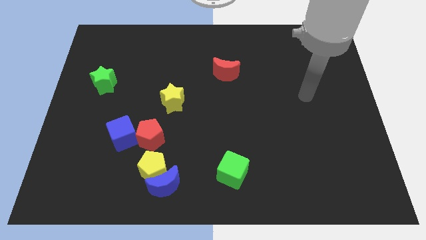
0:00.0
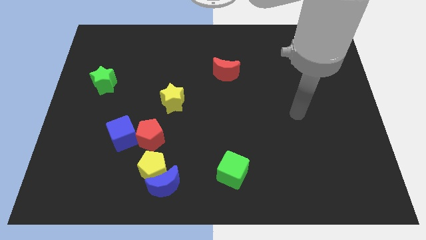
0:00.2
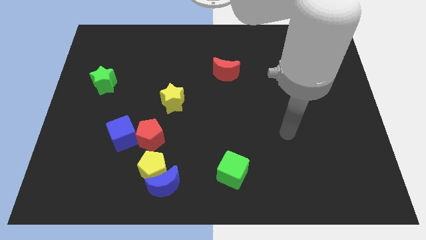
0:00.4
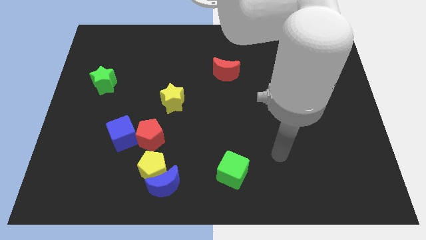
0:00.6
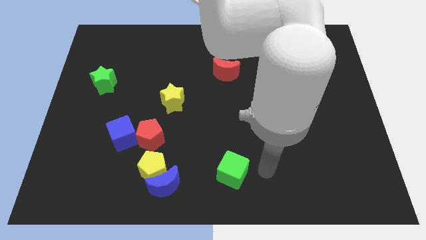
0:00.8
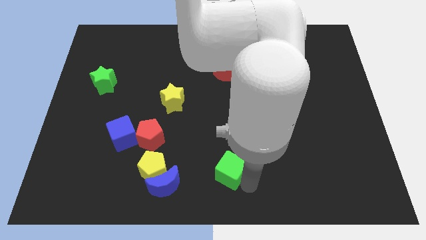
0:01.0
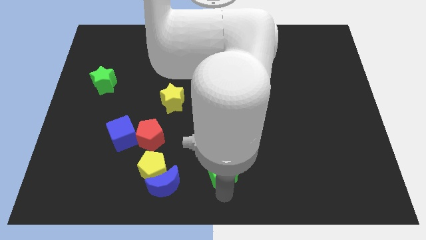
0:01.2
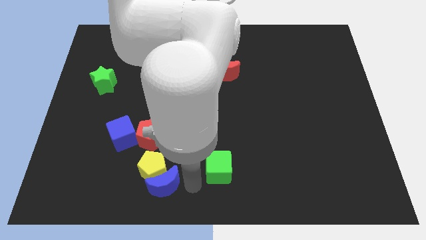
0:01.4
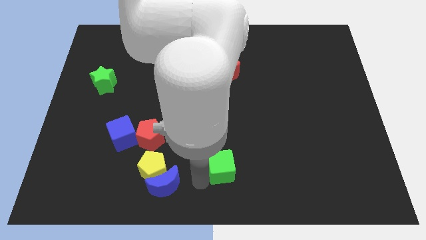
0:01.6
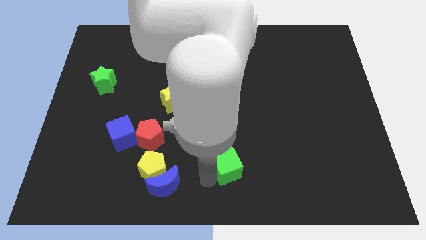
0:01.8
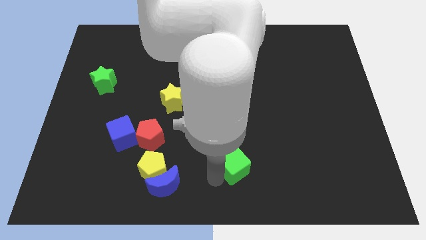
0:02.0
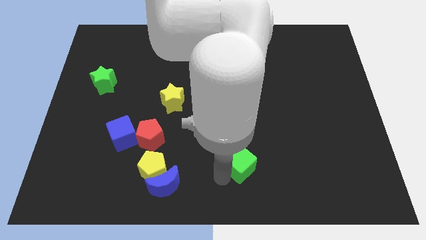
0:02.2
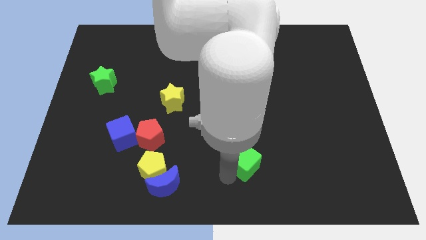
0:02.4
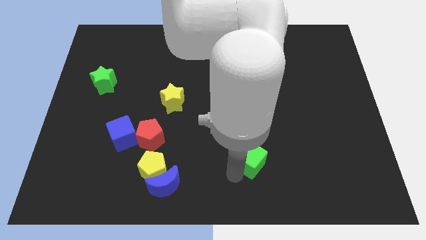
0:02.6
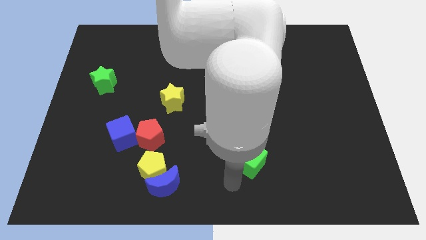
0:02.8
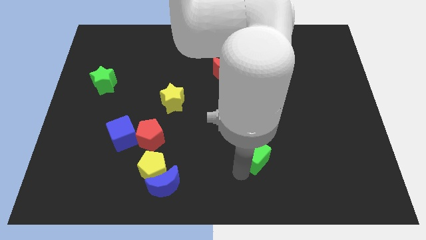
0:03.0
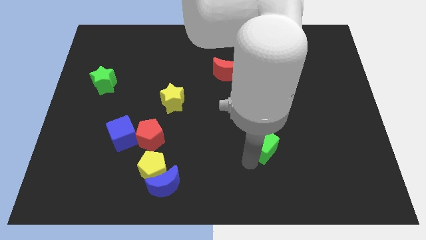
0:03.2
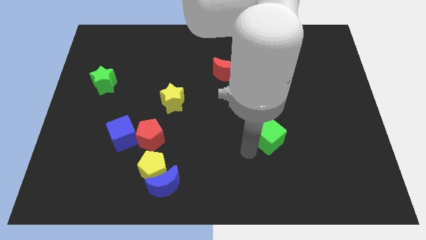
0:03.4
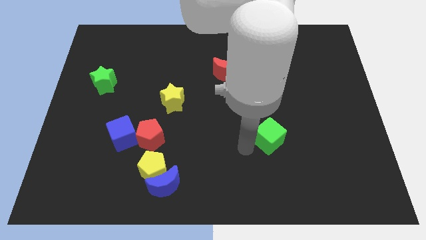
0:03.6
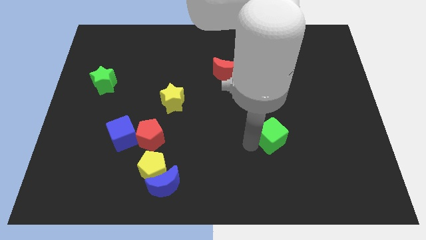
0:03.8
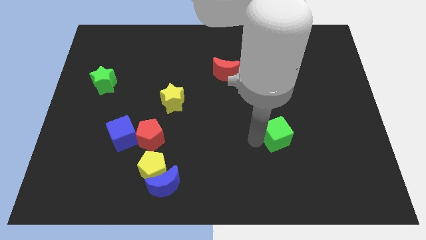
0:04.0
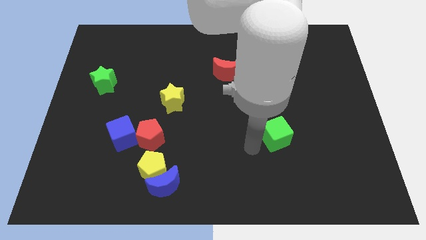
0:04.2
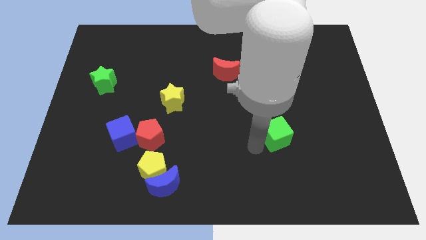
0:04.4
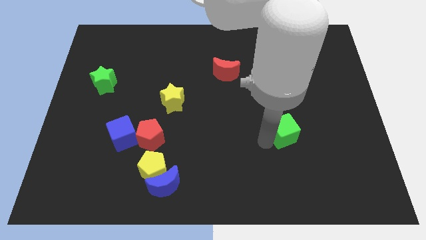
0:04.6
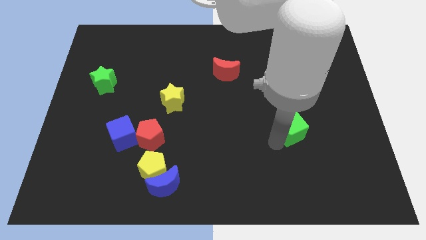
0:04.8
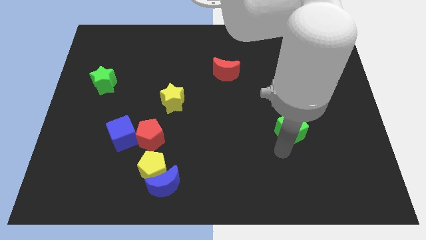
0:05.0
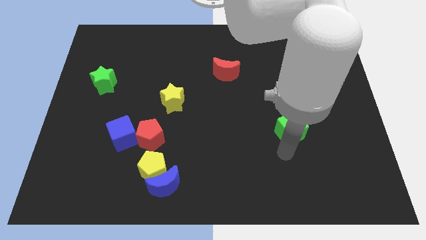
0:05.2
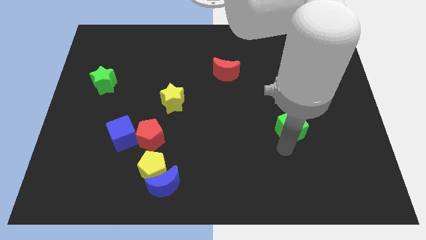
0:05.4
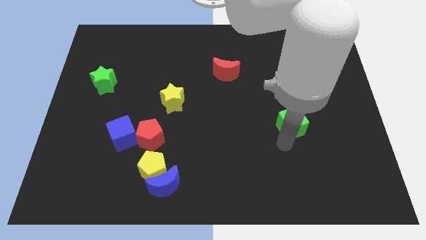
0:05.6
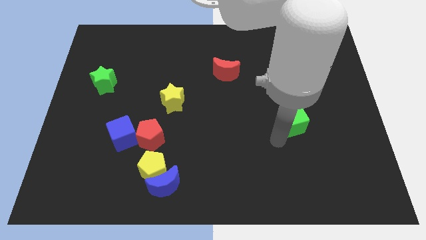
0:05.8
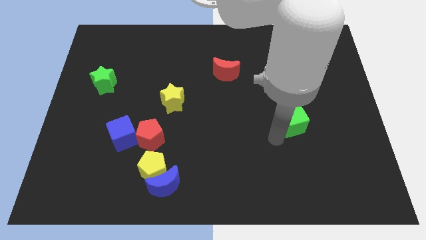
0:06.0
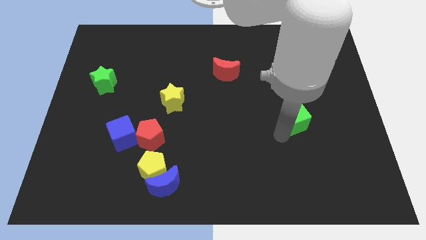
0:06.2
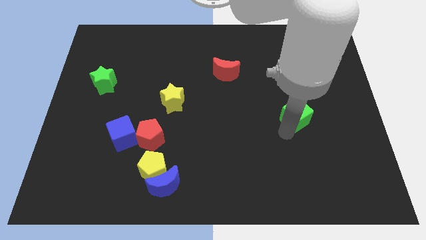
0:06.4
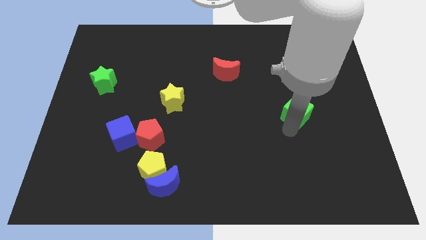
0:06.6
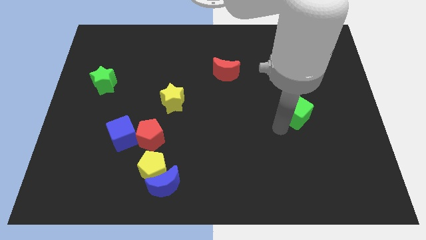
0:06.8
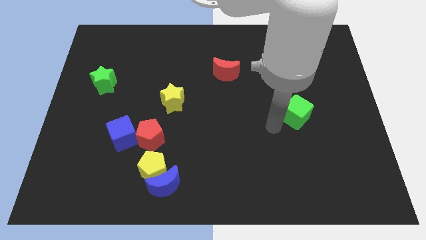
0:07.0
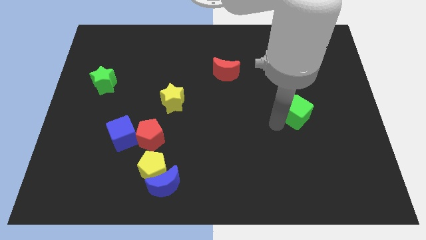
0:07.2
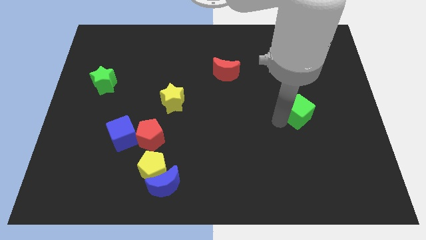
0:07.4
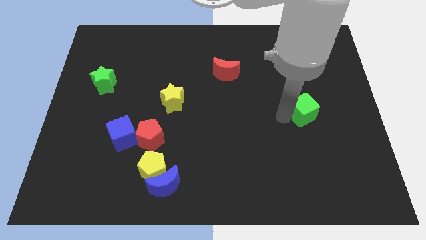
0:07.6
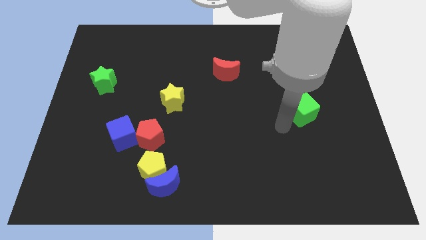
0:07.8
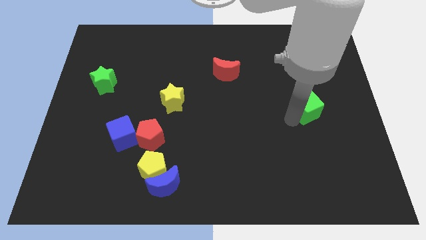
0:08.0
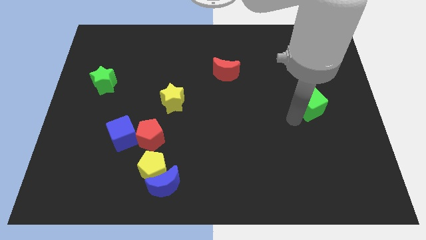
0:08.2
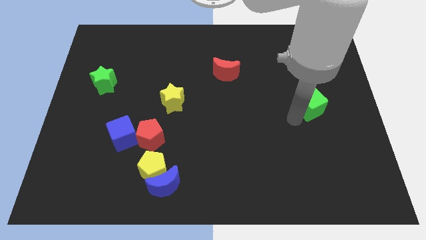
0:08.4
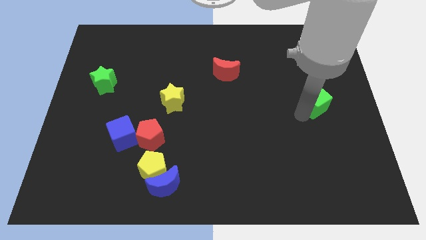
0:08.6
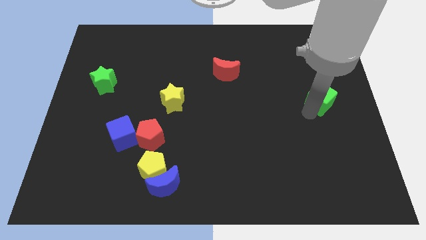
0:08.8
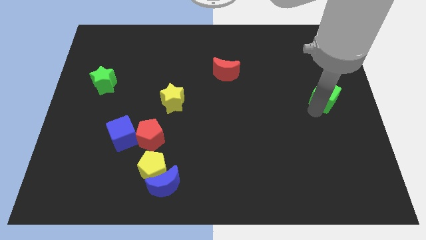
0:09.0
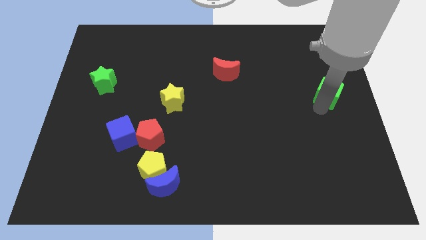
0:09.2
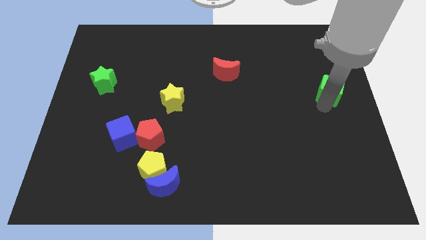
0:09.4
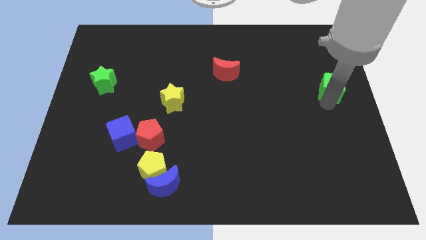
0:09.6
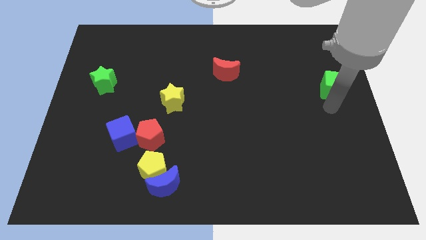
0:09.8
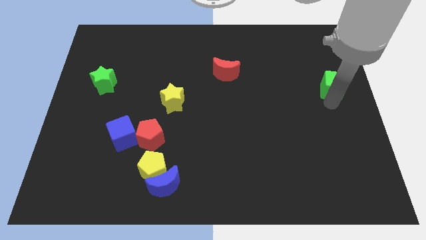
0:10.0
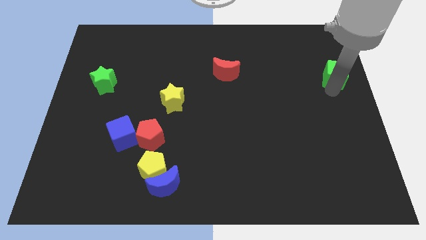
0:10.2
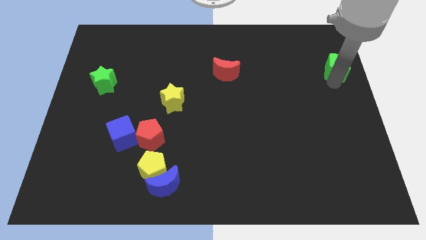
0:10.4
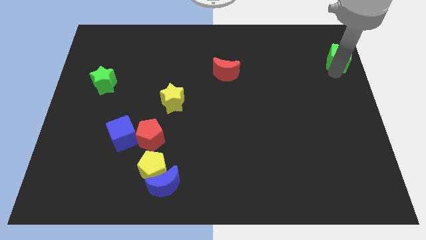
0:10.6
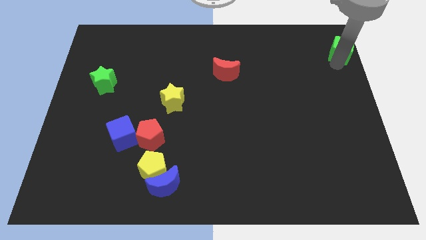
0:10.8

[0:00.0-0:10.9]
slide the green cube to the top right

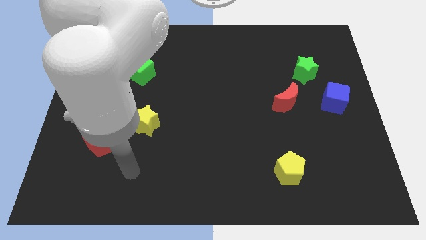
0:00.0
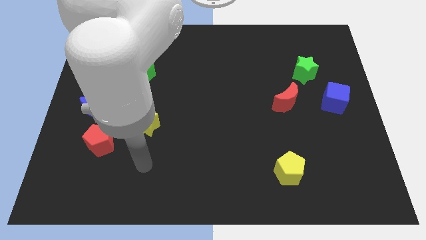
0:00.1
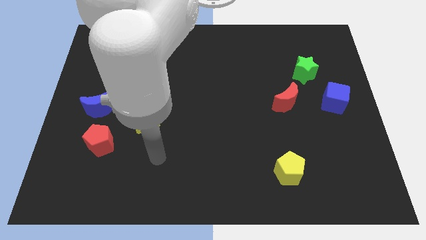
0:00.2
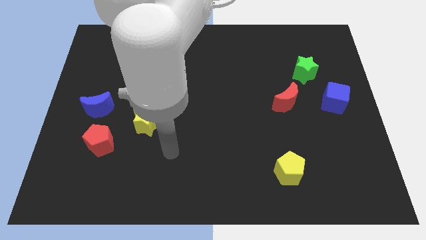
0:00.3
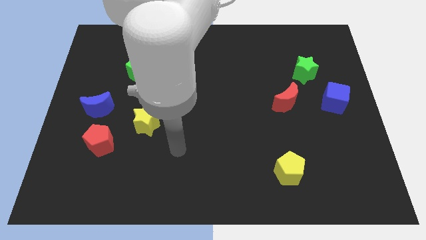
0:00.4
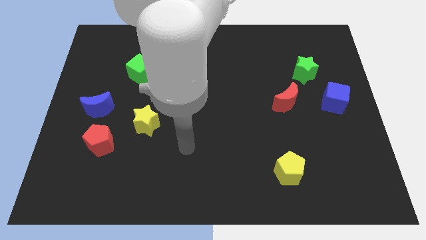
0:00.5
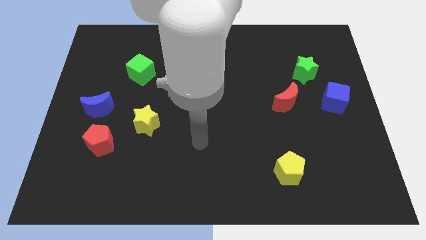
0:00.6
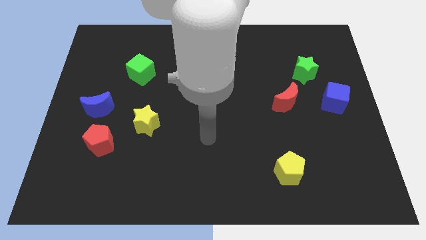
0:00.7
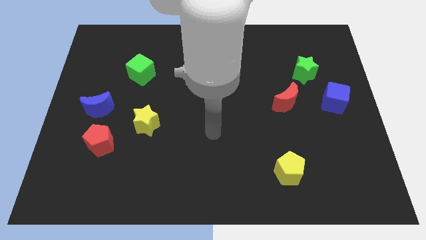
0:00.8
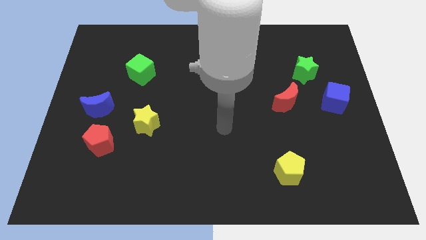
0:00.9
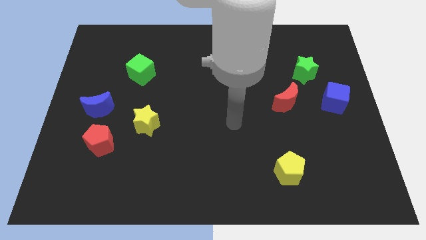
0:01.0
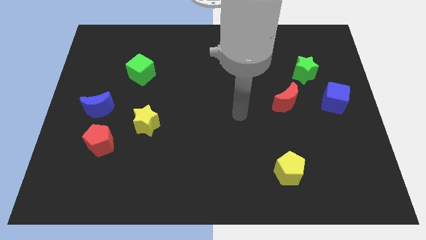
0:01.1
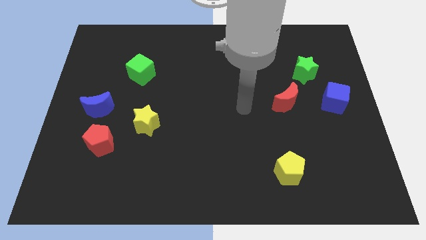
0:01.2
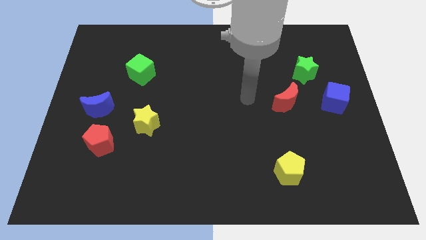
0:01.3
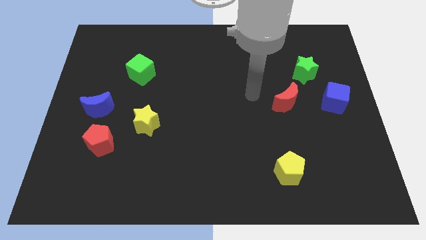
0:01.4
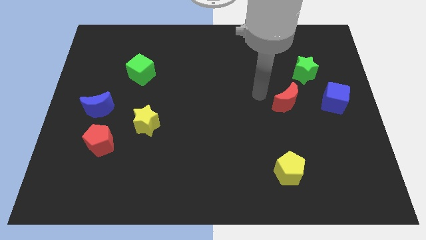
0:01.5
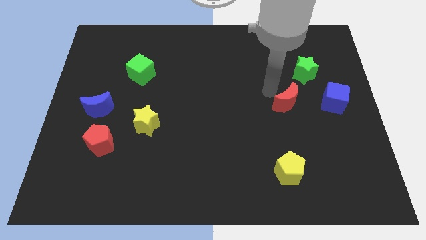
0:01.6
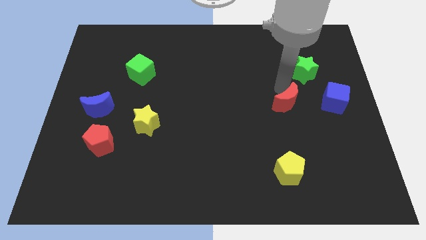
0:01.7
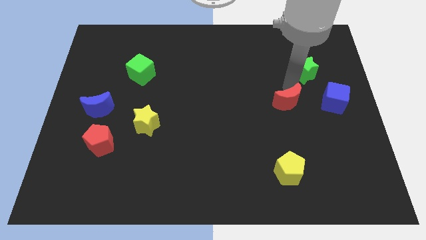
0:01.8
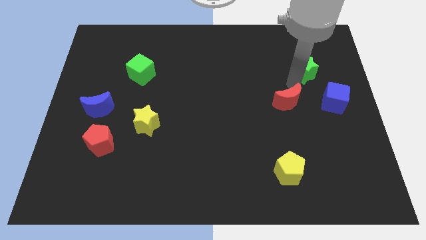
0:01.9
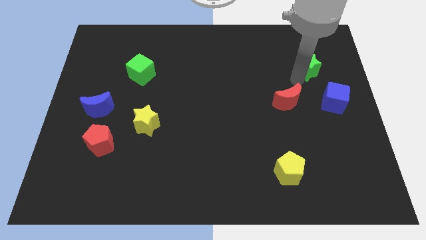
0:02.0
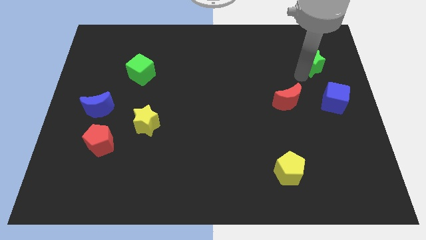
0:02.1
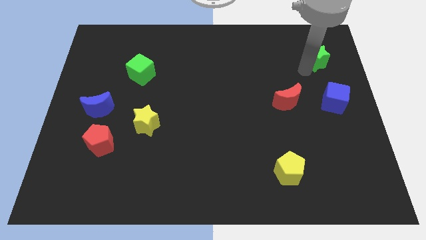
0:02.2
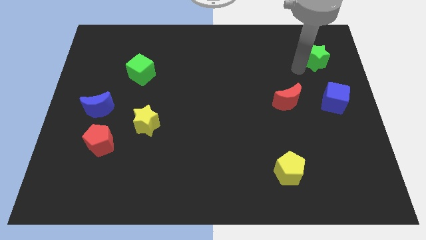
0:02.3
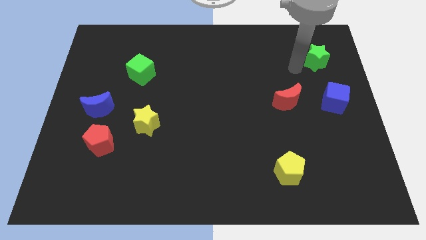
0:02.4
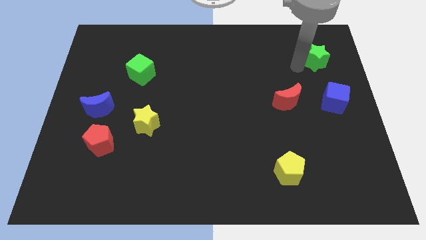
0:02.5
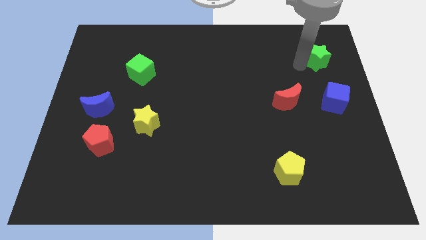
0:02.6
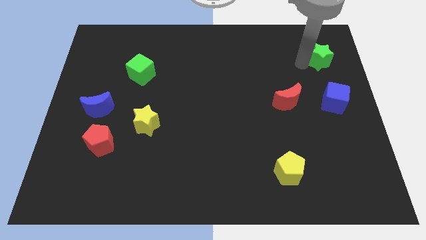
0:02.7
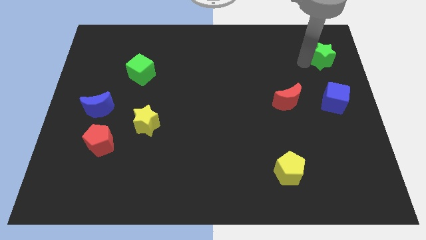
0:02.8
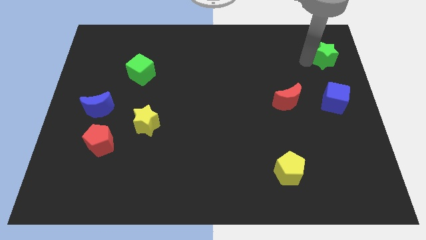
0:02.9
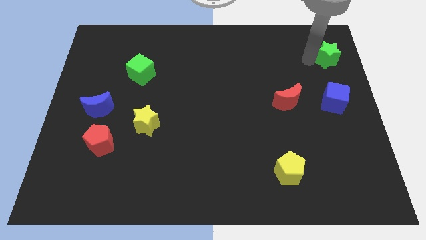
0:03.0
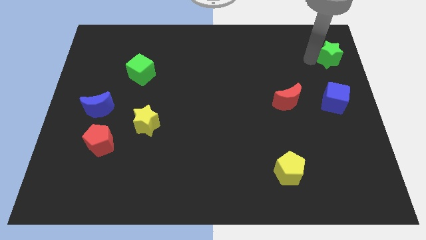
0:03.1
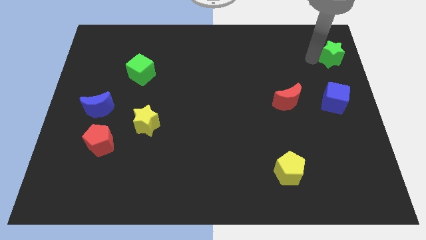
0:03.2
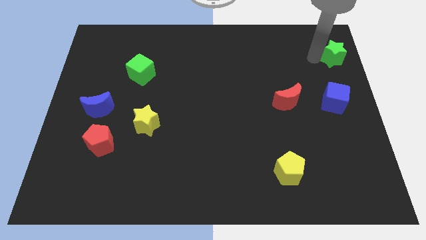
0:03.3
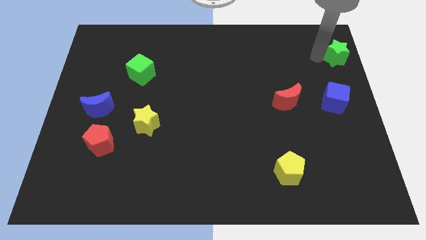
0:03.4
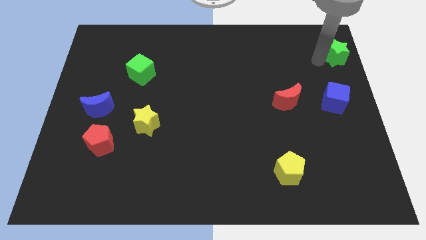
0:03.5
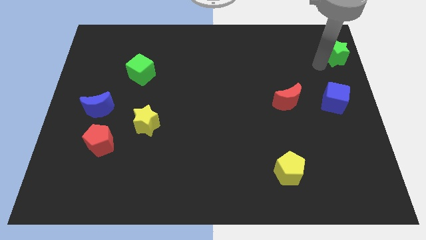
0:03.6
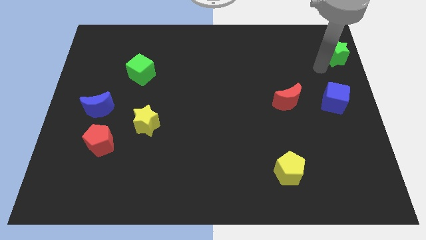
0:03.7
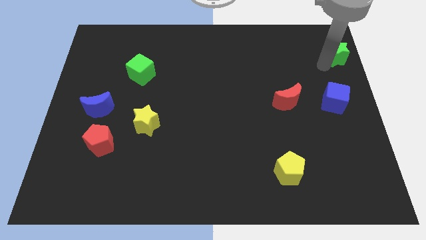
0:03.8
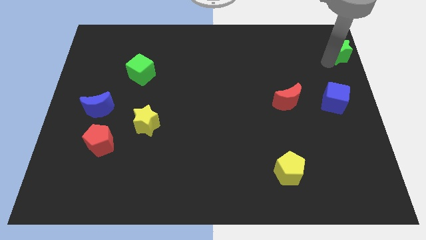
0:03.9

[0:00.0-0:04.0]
slide the green star to the top right corner
